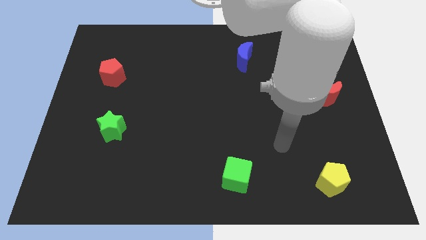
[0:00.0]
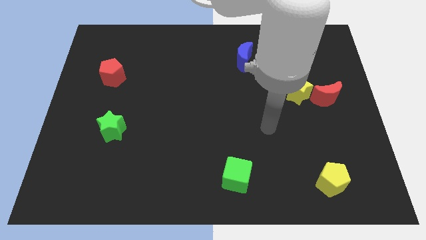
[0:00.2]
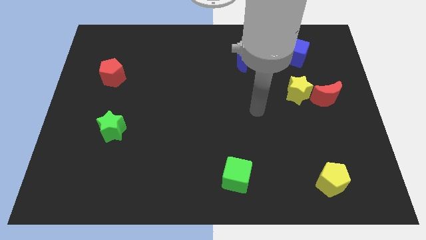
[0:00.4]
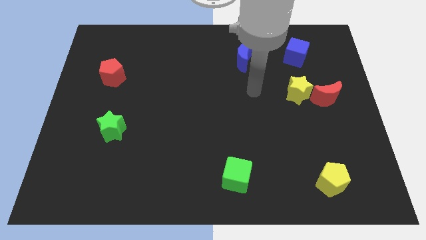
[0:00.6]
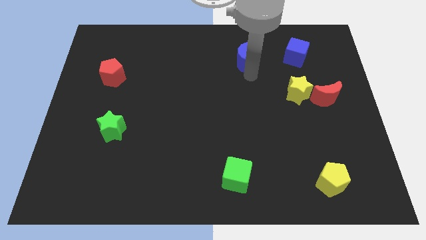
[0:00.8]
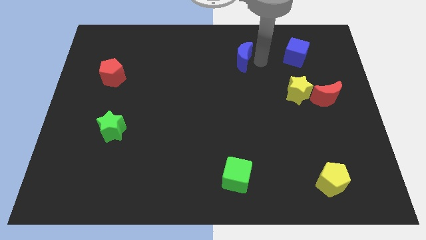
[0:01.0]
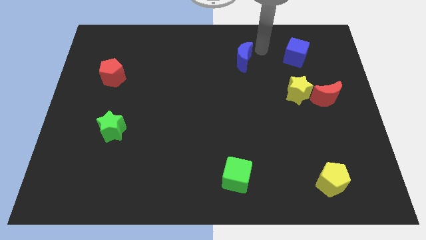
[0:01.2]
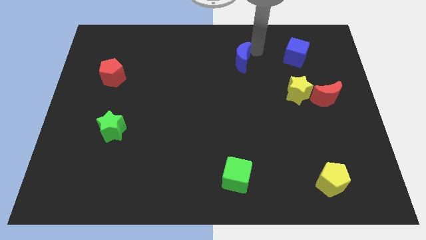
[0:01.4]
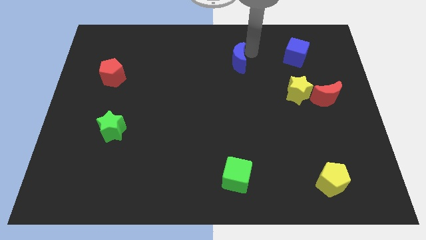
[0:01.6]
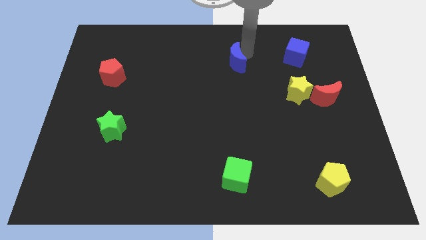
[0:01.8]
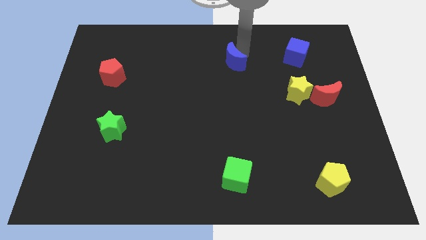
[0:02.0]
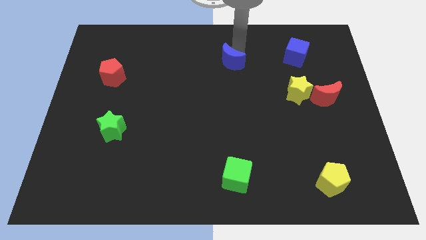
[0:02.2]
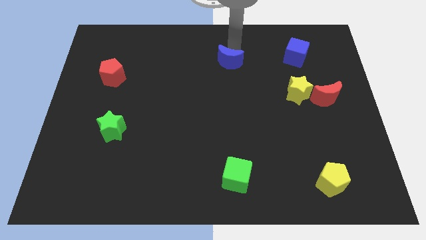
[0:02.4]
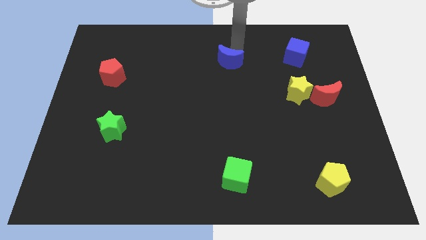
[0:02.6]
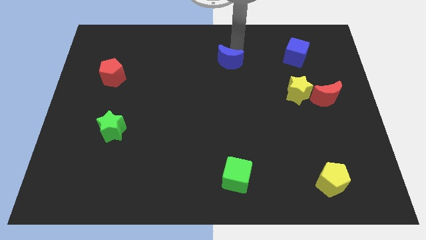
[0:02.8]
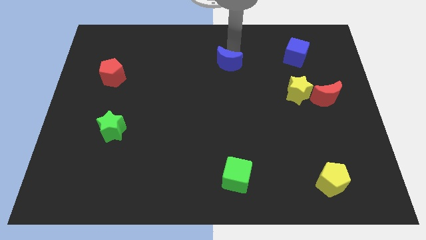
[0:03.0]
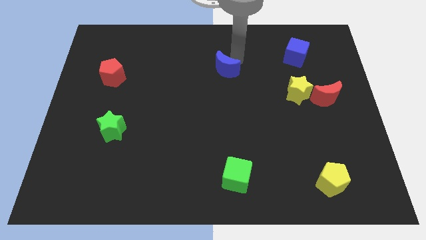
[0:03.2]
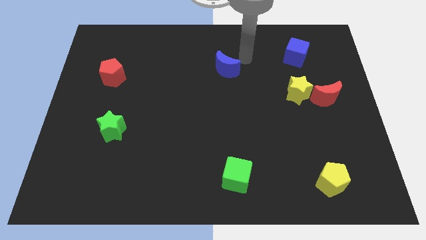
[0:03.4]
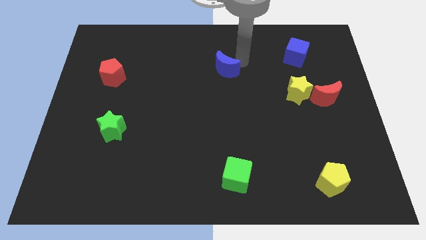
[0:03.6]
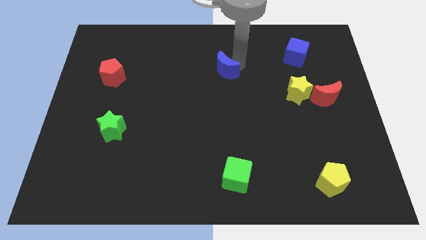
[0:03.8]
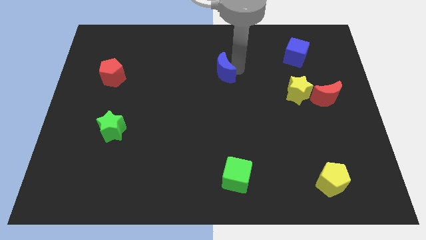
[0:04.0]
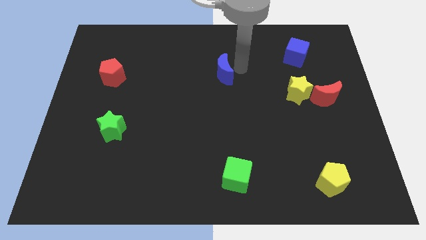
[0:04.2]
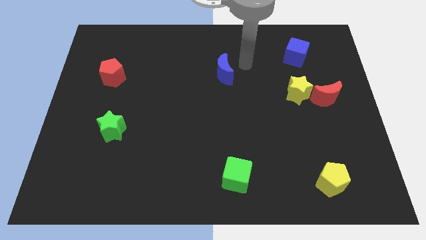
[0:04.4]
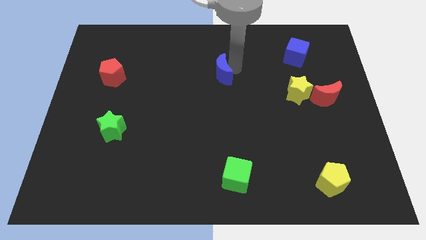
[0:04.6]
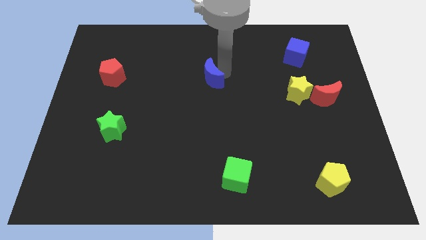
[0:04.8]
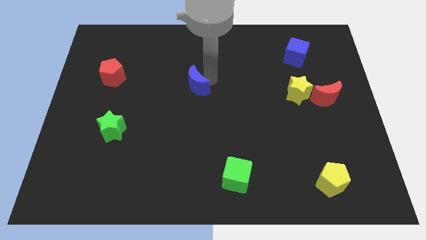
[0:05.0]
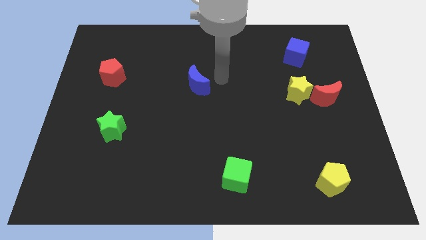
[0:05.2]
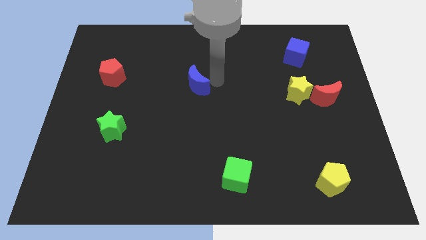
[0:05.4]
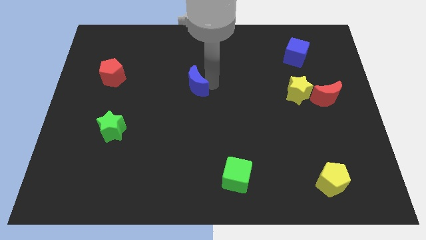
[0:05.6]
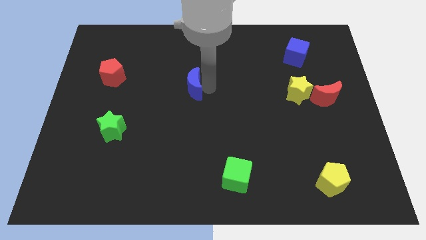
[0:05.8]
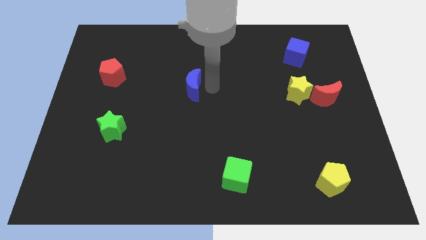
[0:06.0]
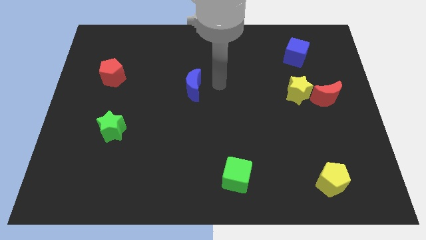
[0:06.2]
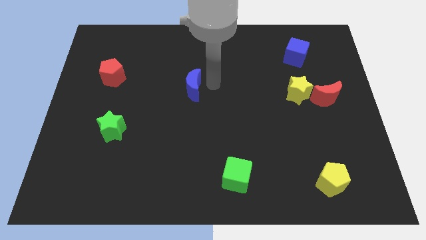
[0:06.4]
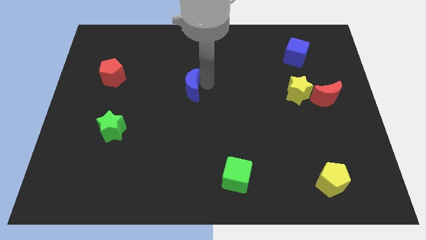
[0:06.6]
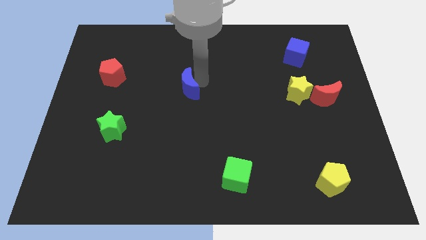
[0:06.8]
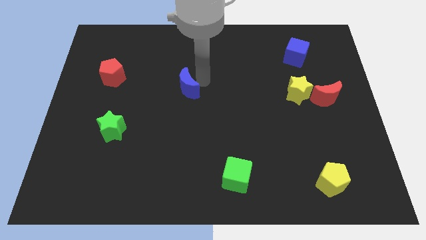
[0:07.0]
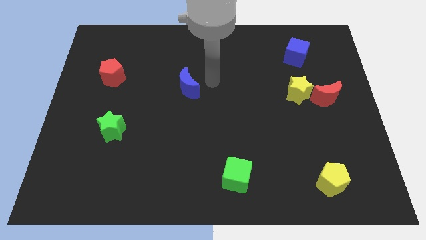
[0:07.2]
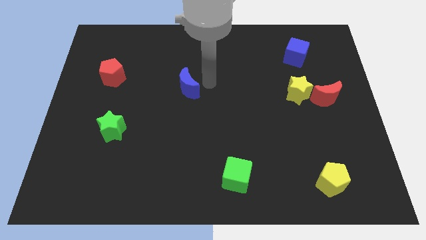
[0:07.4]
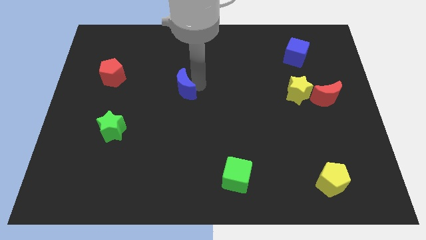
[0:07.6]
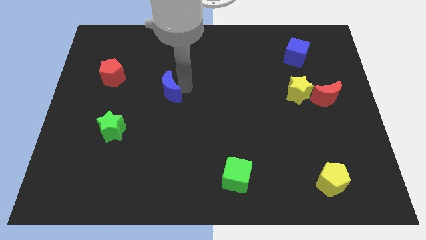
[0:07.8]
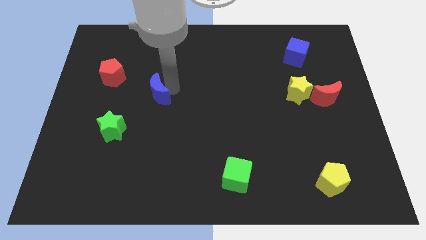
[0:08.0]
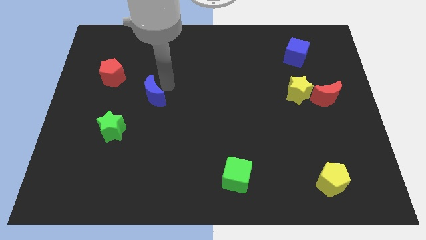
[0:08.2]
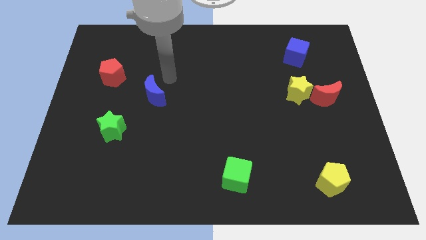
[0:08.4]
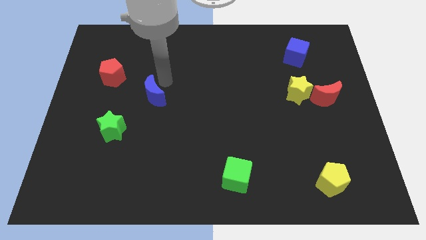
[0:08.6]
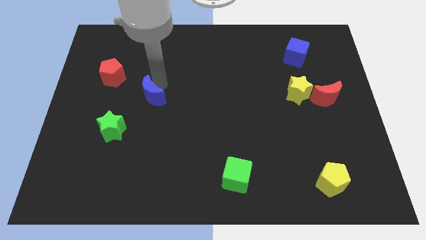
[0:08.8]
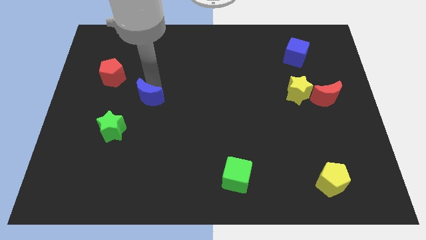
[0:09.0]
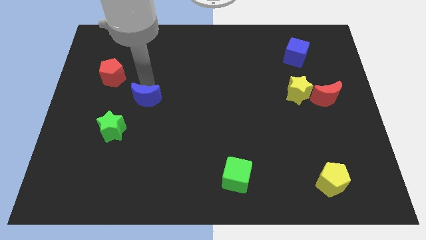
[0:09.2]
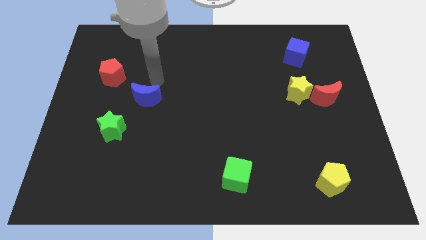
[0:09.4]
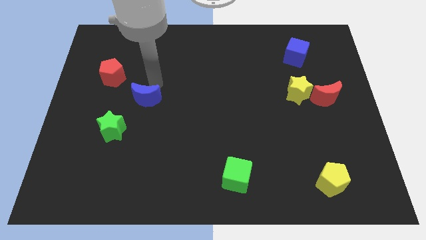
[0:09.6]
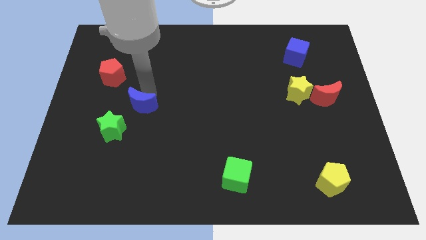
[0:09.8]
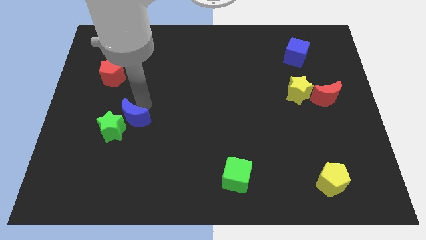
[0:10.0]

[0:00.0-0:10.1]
push the blue moon towards the green star

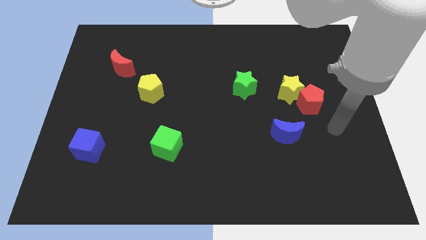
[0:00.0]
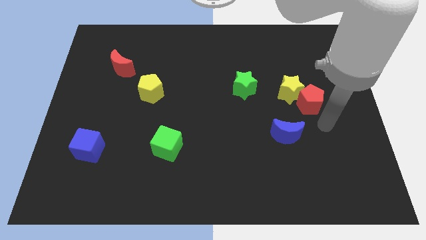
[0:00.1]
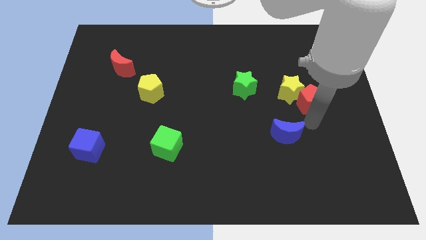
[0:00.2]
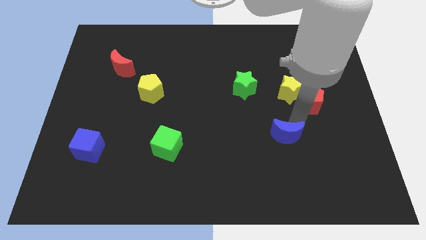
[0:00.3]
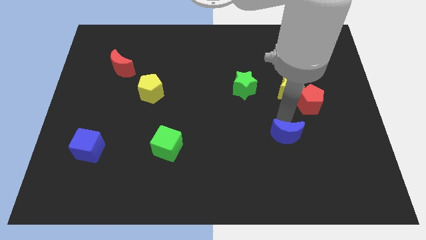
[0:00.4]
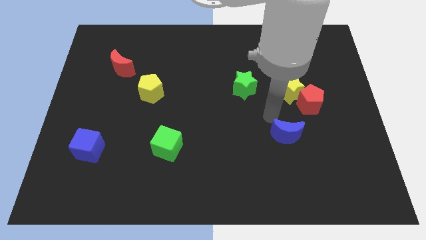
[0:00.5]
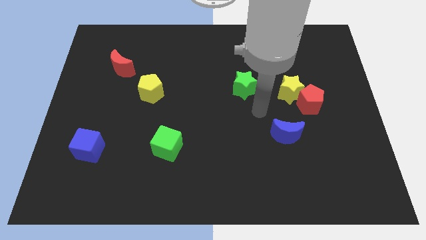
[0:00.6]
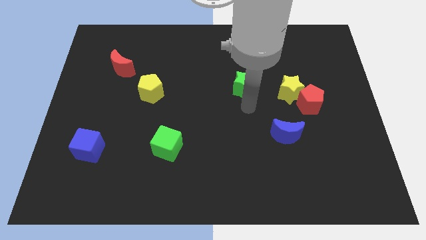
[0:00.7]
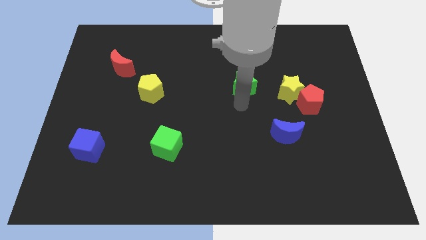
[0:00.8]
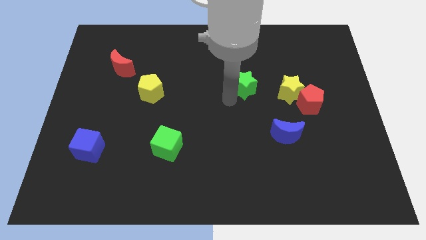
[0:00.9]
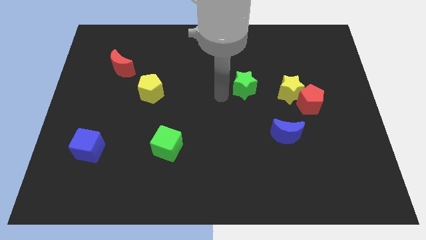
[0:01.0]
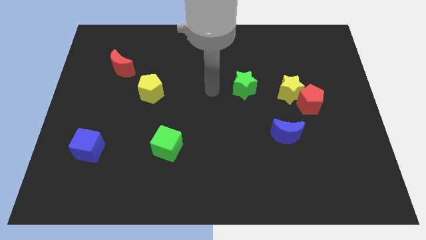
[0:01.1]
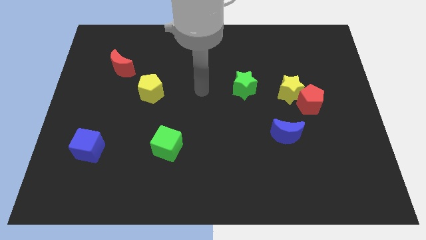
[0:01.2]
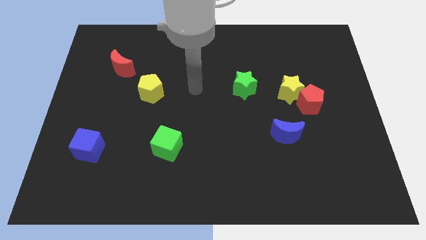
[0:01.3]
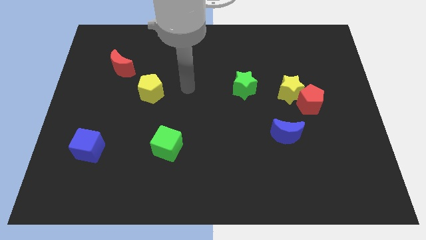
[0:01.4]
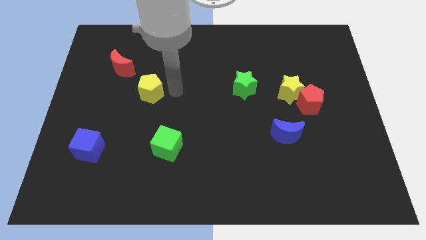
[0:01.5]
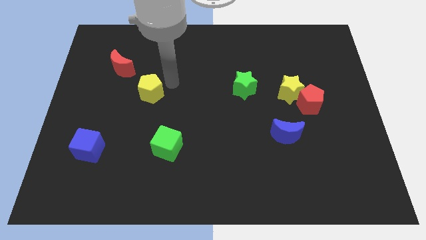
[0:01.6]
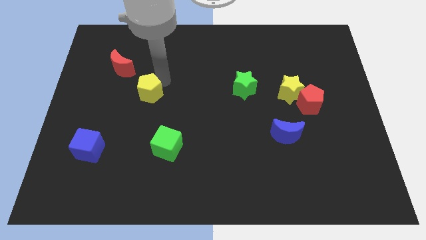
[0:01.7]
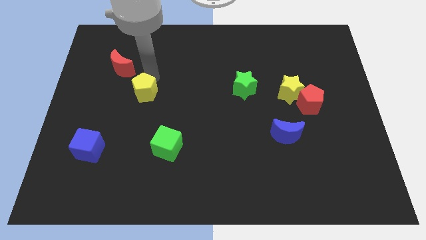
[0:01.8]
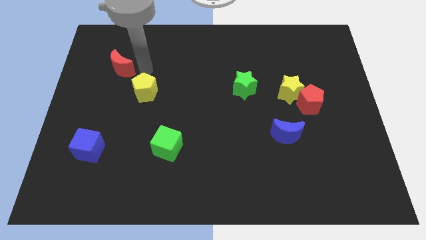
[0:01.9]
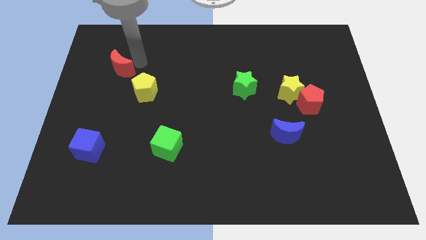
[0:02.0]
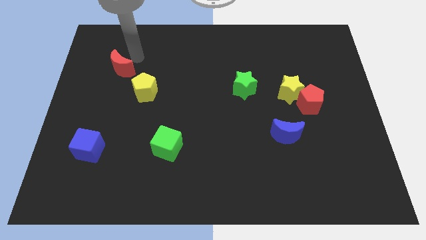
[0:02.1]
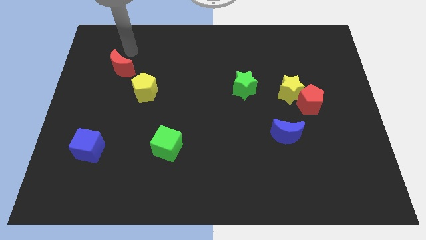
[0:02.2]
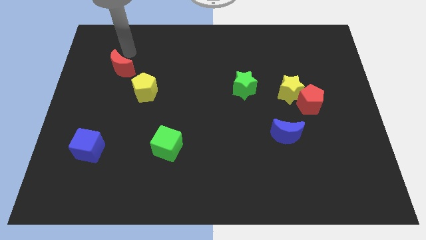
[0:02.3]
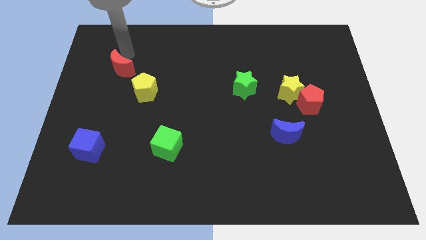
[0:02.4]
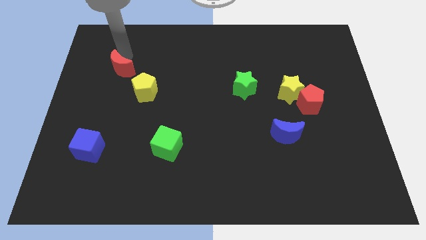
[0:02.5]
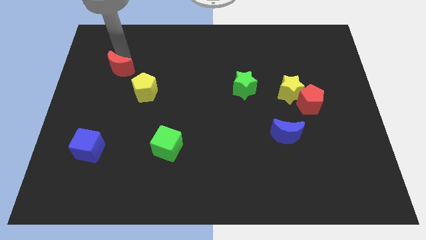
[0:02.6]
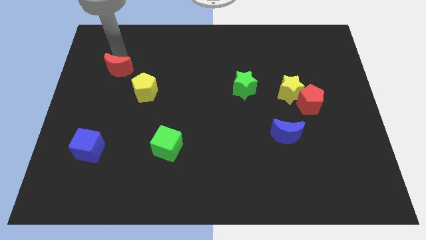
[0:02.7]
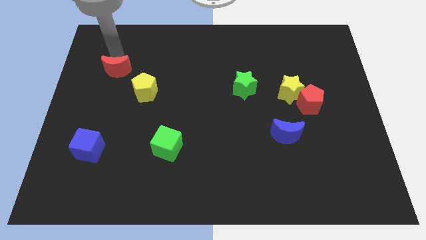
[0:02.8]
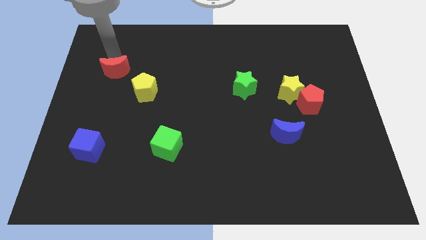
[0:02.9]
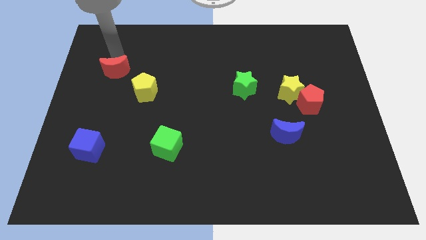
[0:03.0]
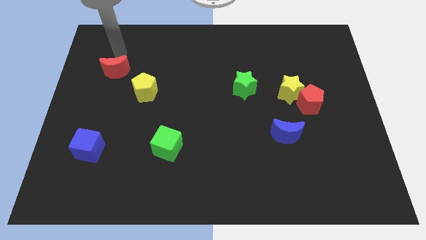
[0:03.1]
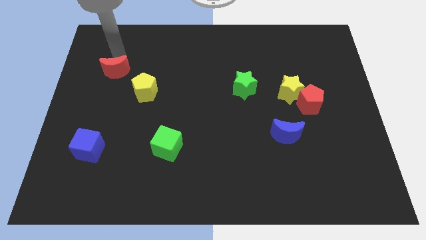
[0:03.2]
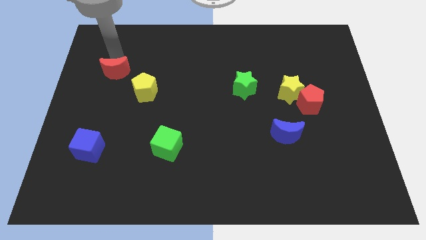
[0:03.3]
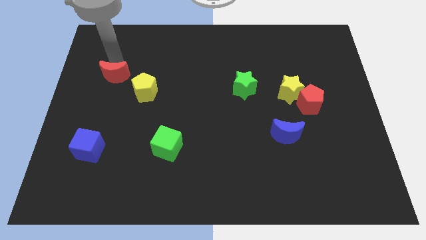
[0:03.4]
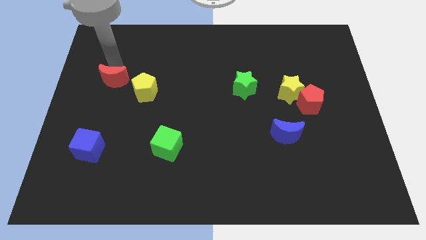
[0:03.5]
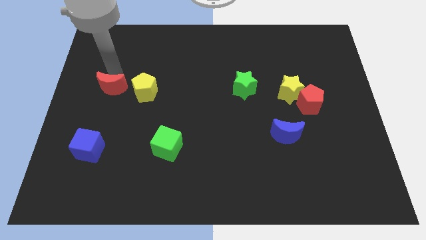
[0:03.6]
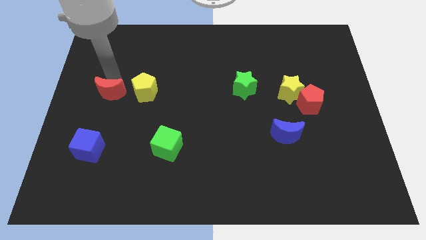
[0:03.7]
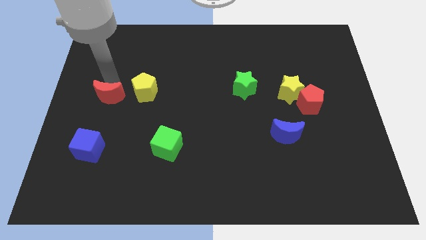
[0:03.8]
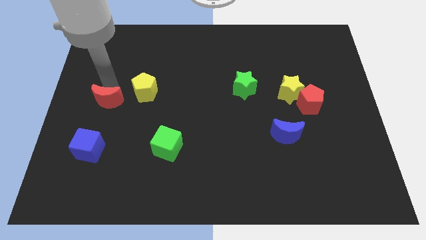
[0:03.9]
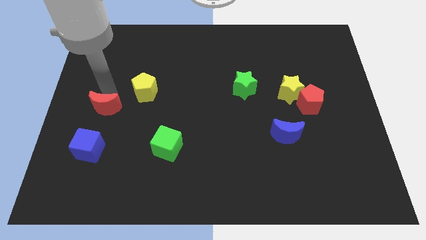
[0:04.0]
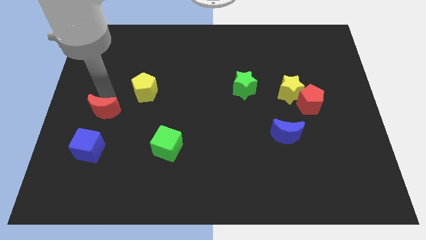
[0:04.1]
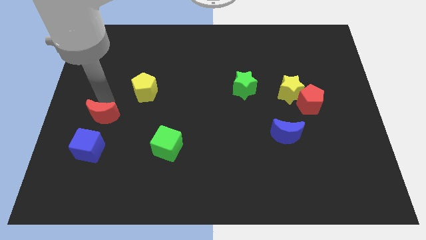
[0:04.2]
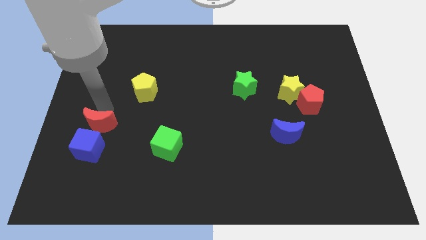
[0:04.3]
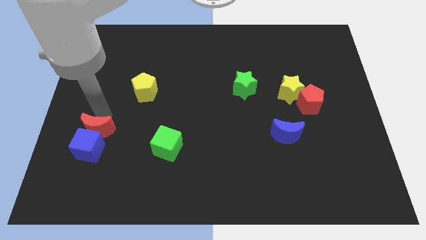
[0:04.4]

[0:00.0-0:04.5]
put the red moon close to the blue cube
